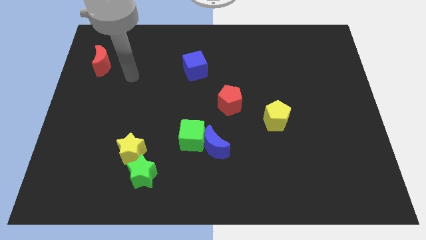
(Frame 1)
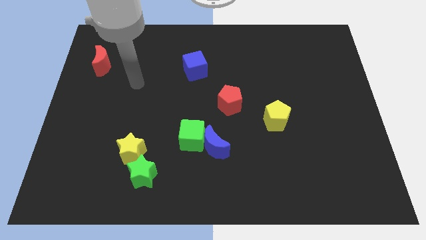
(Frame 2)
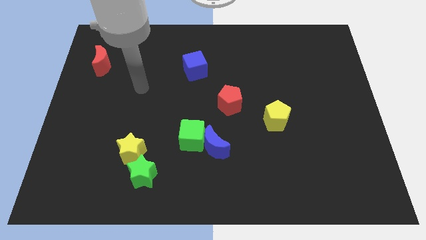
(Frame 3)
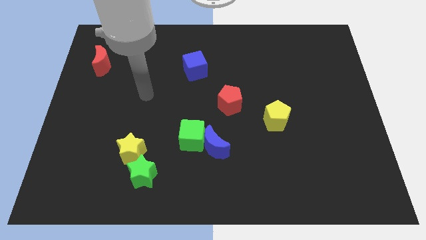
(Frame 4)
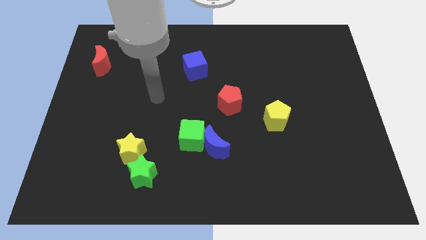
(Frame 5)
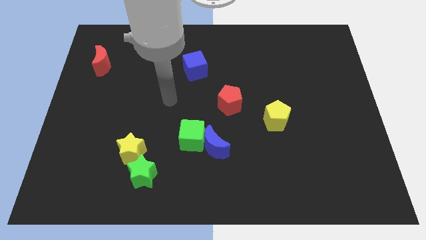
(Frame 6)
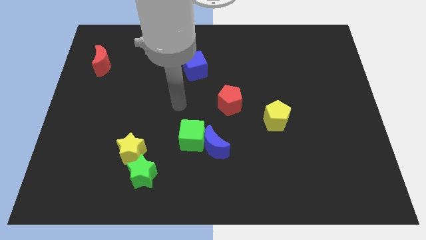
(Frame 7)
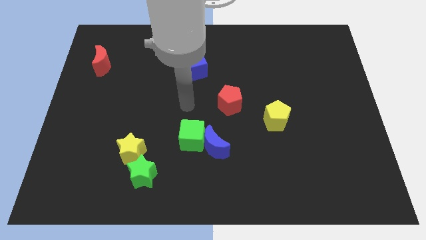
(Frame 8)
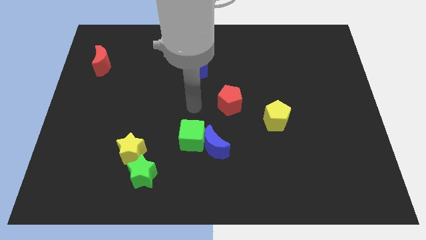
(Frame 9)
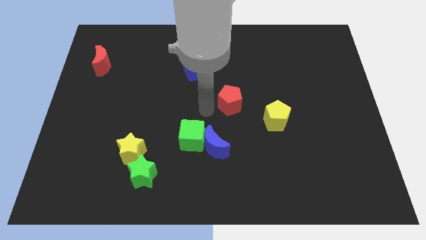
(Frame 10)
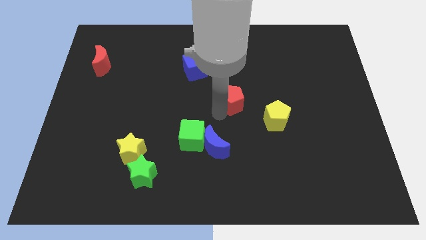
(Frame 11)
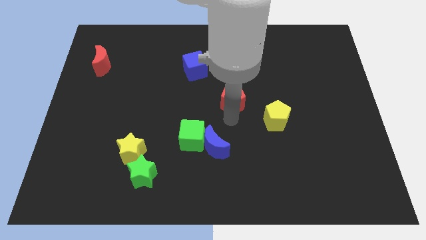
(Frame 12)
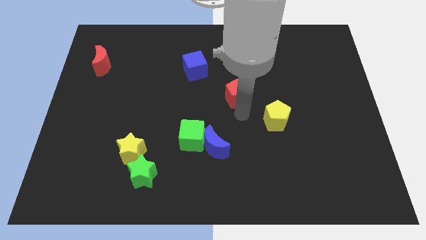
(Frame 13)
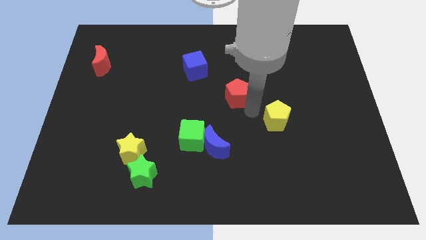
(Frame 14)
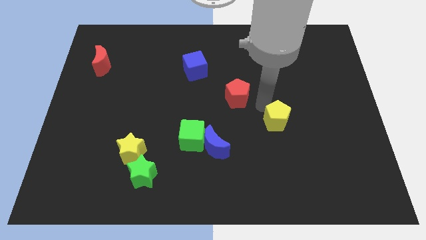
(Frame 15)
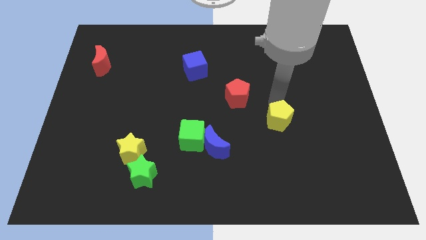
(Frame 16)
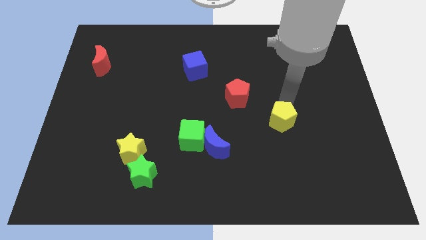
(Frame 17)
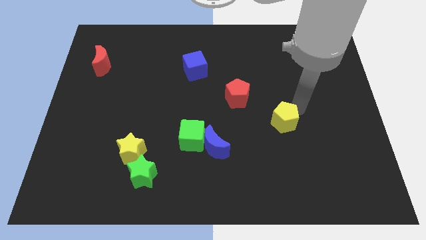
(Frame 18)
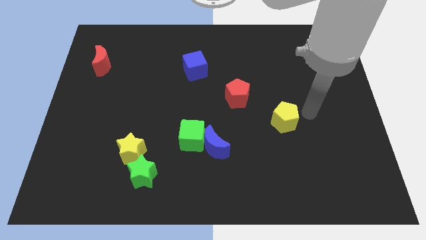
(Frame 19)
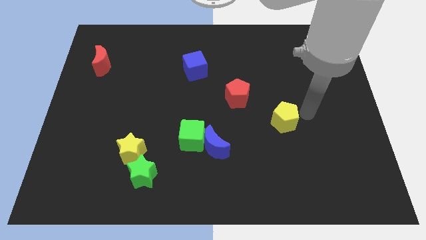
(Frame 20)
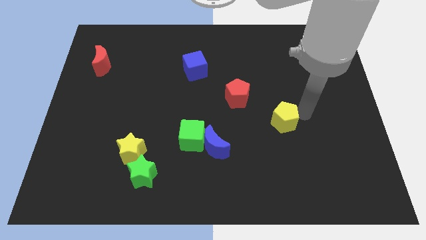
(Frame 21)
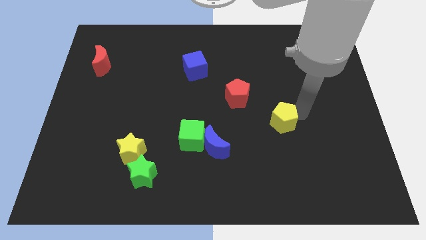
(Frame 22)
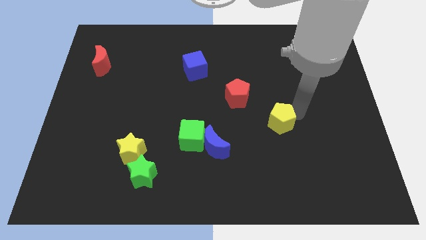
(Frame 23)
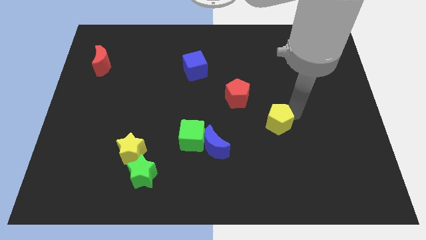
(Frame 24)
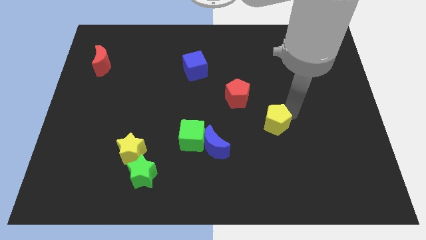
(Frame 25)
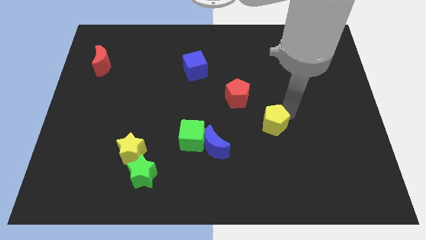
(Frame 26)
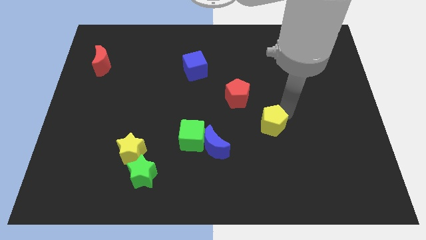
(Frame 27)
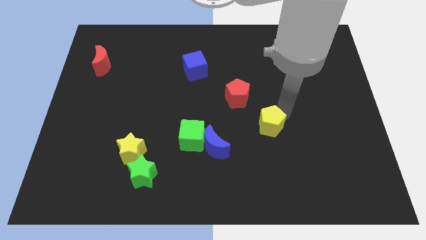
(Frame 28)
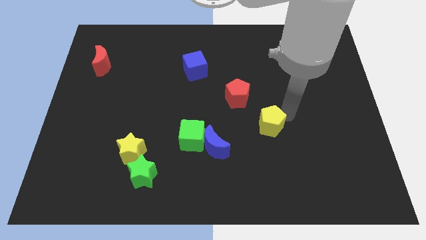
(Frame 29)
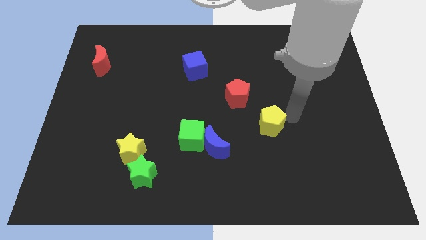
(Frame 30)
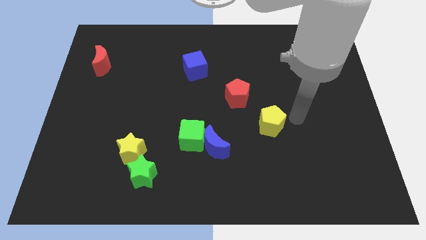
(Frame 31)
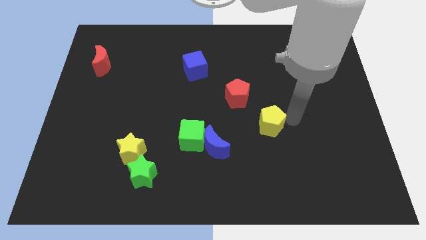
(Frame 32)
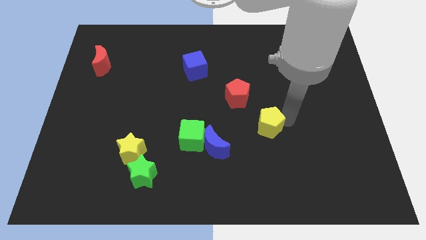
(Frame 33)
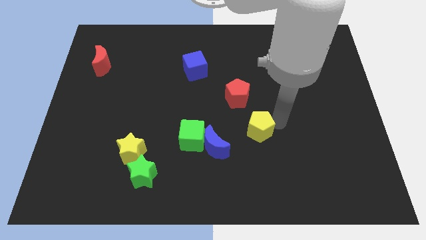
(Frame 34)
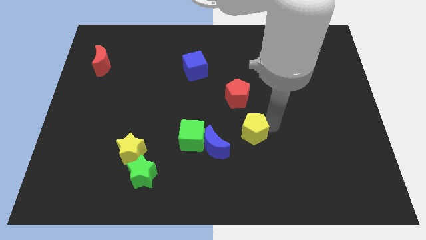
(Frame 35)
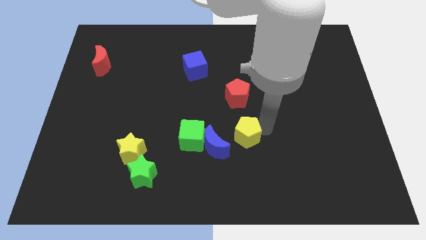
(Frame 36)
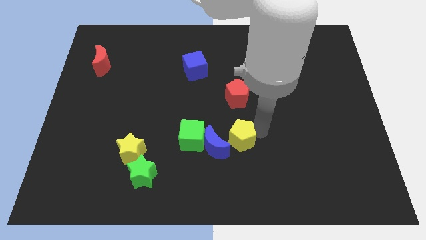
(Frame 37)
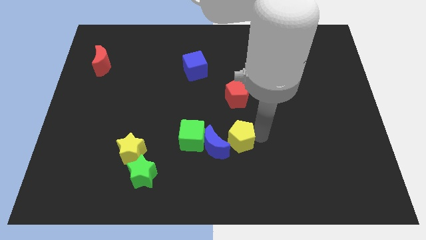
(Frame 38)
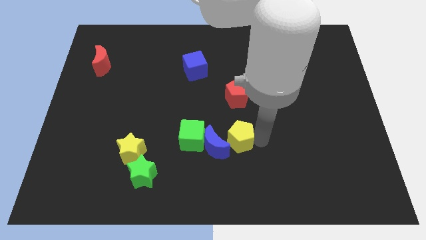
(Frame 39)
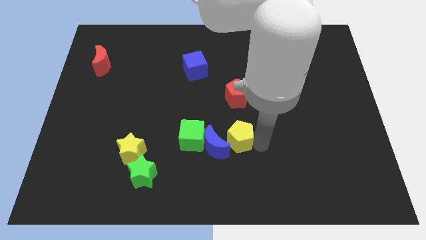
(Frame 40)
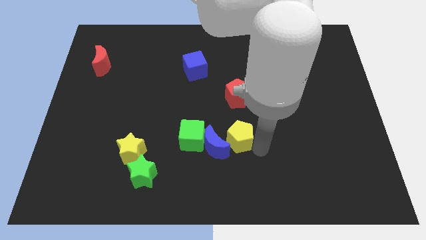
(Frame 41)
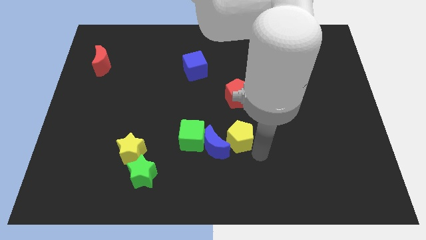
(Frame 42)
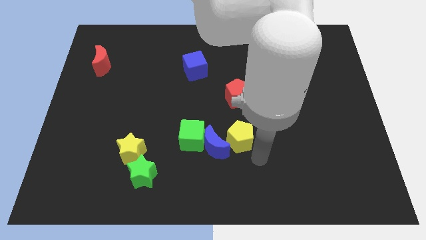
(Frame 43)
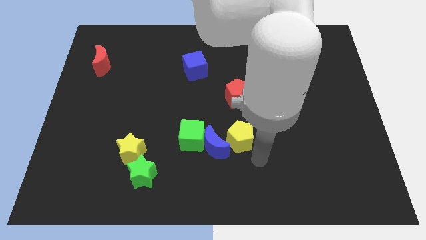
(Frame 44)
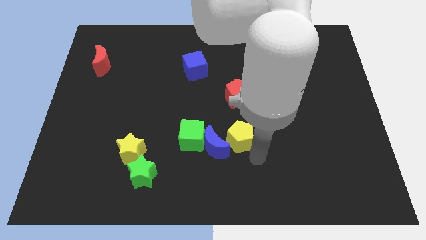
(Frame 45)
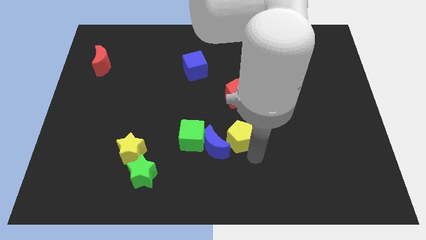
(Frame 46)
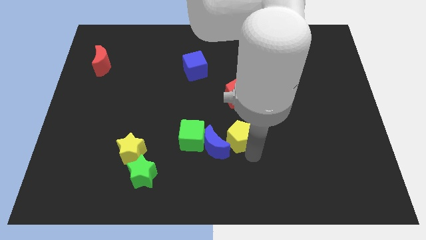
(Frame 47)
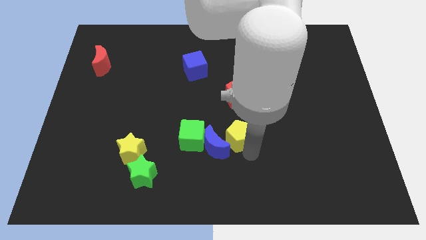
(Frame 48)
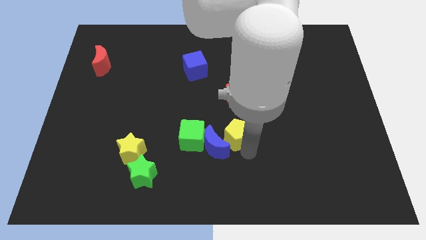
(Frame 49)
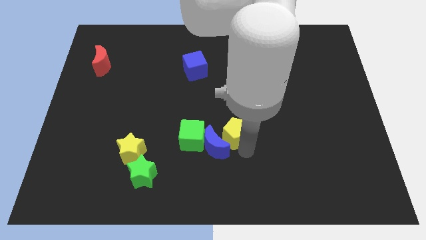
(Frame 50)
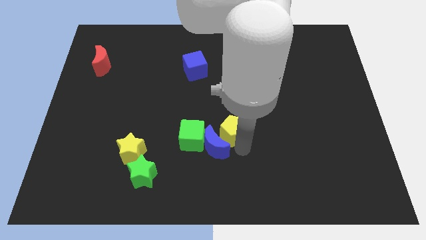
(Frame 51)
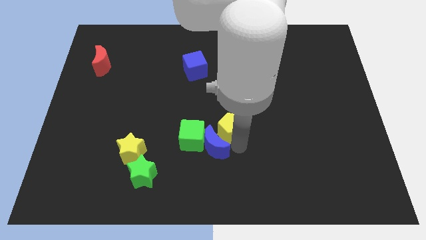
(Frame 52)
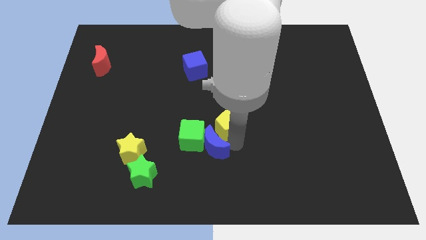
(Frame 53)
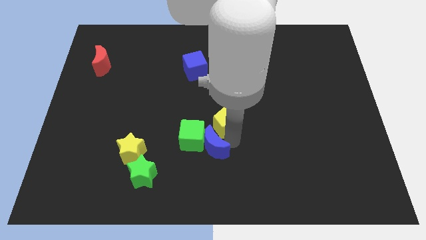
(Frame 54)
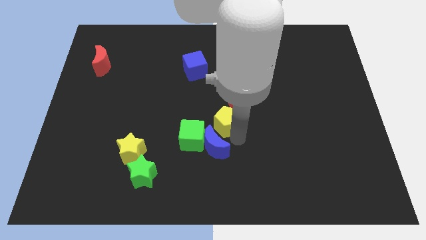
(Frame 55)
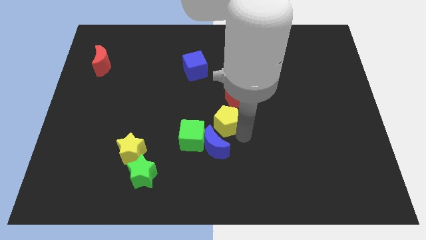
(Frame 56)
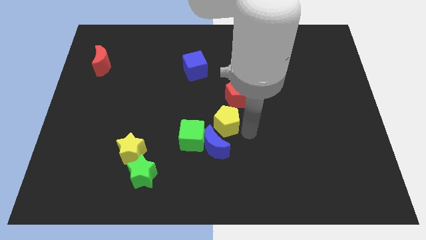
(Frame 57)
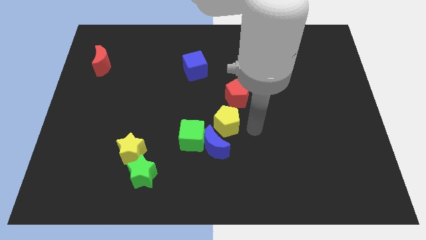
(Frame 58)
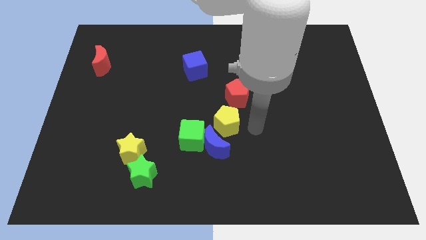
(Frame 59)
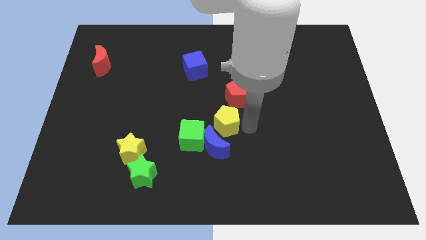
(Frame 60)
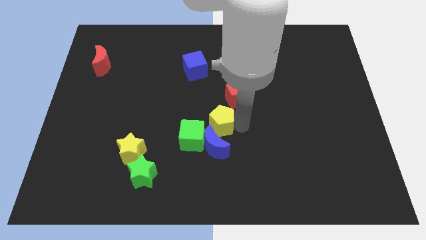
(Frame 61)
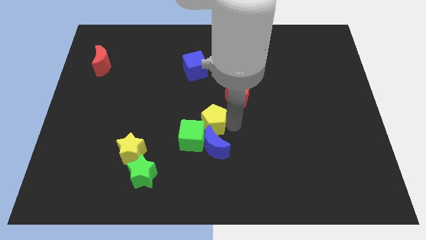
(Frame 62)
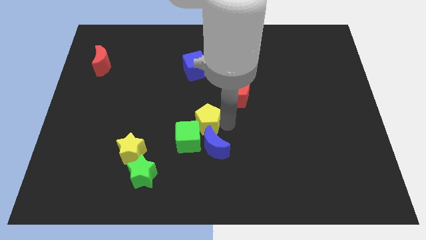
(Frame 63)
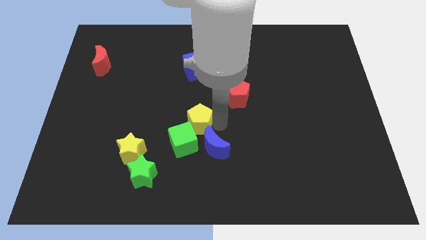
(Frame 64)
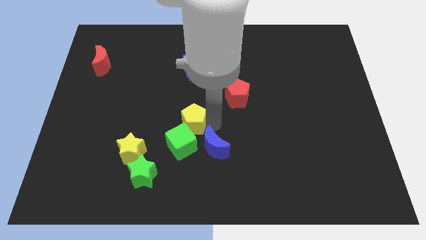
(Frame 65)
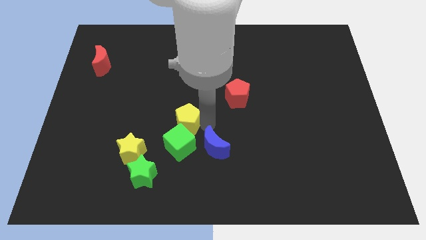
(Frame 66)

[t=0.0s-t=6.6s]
slide the yellow pentagon left

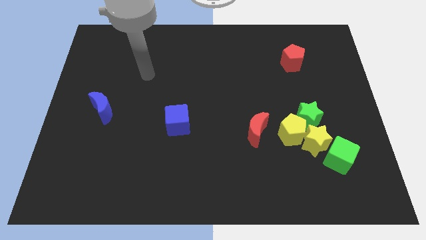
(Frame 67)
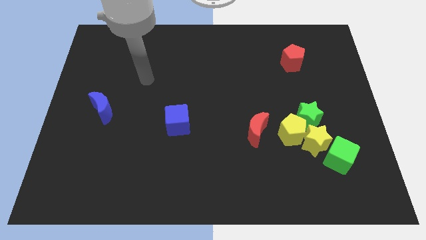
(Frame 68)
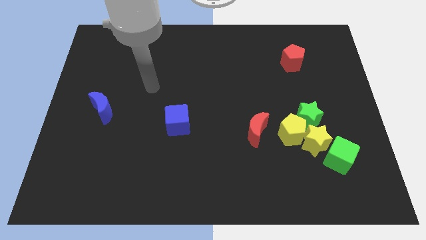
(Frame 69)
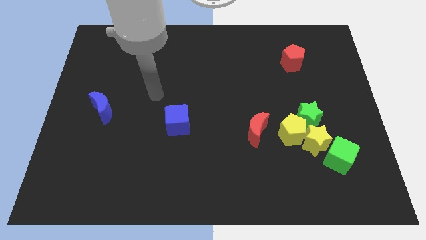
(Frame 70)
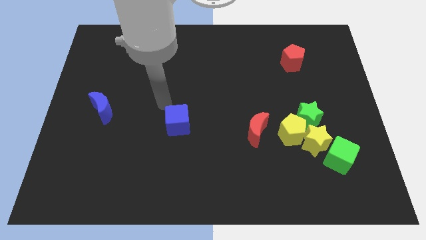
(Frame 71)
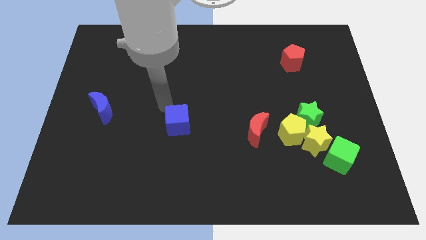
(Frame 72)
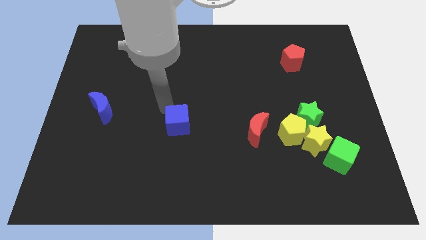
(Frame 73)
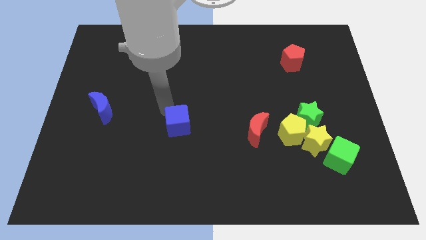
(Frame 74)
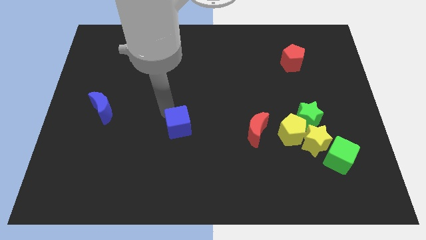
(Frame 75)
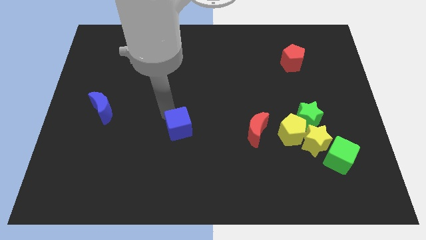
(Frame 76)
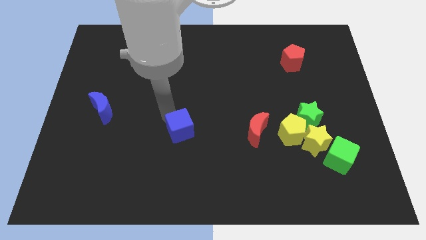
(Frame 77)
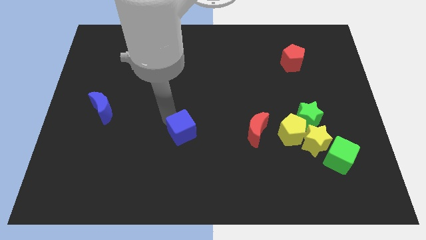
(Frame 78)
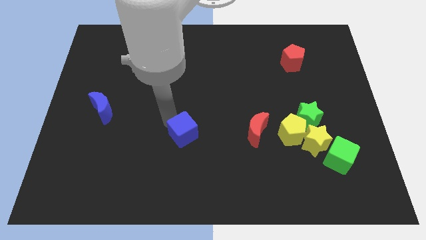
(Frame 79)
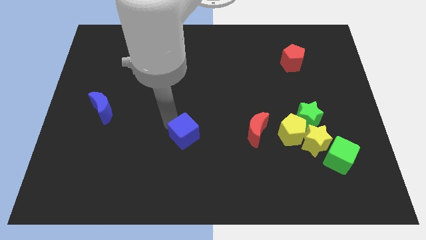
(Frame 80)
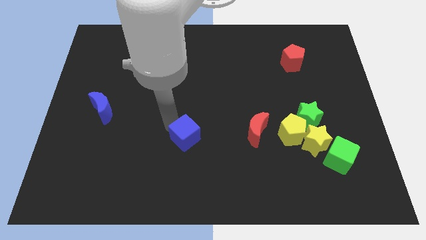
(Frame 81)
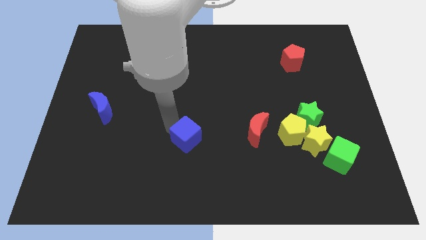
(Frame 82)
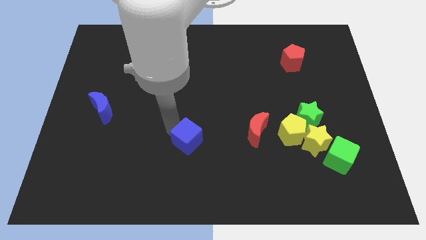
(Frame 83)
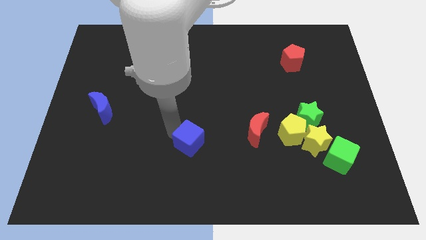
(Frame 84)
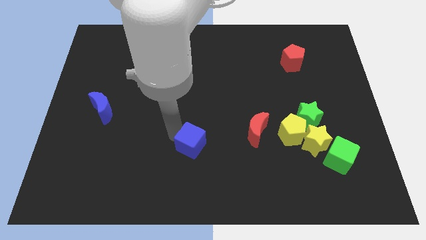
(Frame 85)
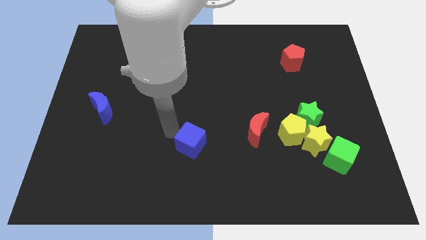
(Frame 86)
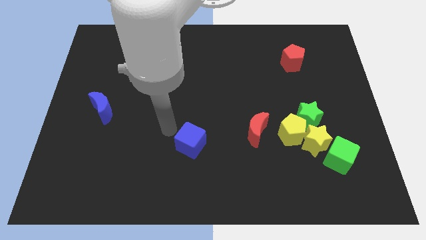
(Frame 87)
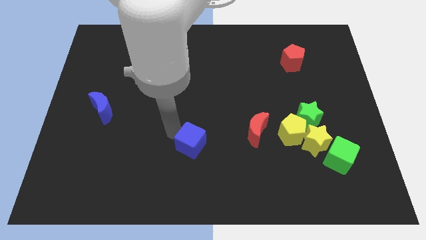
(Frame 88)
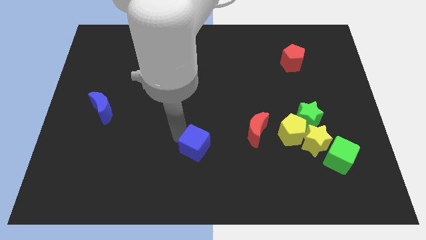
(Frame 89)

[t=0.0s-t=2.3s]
slide the blue cube slightly down and right diagonally
